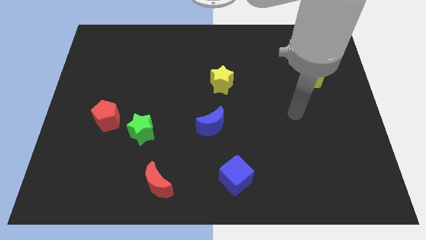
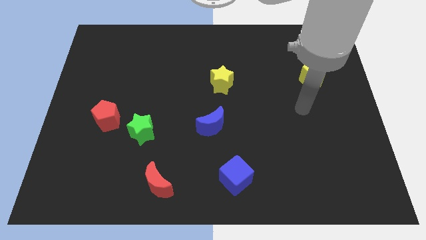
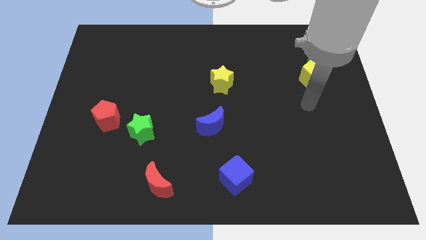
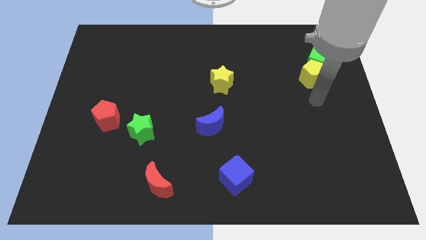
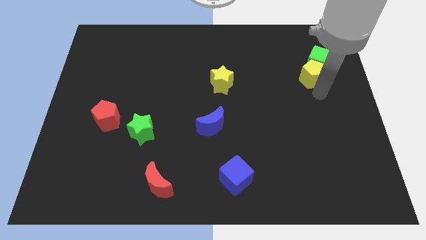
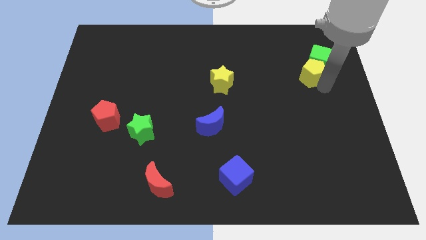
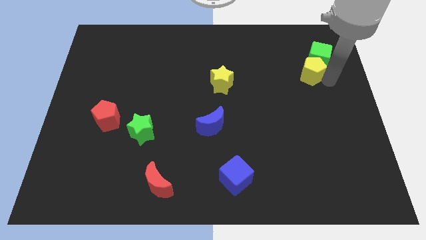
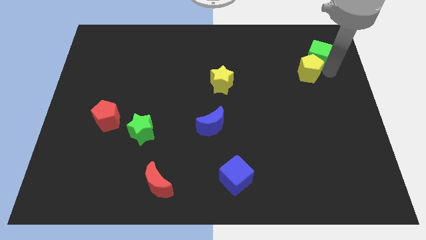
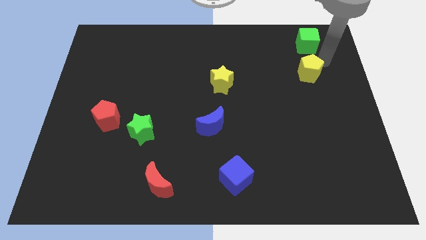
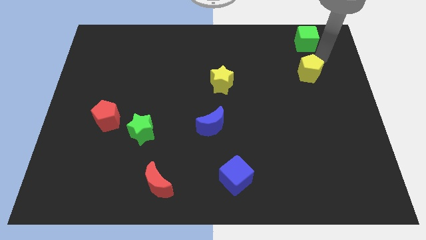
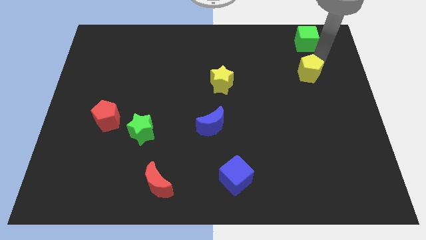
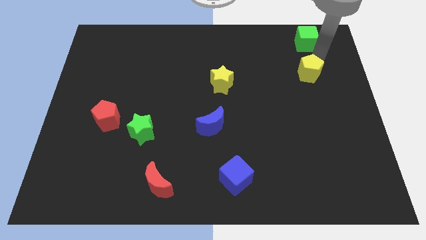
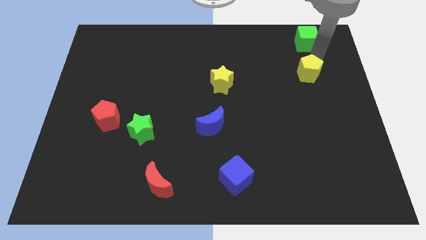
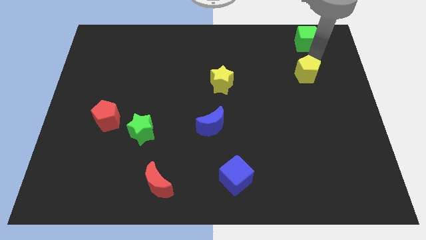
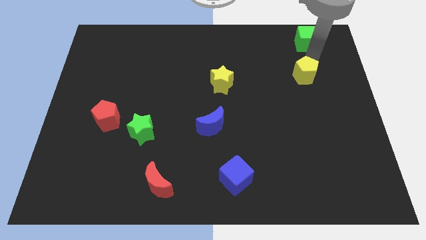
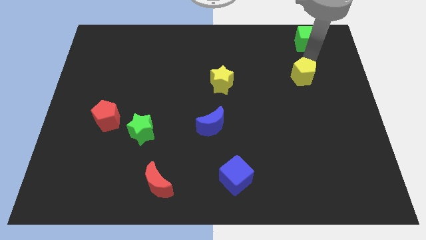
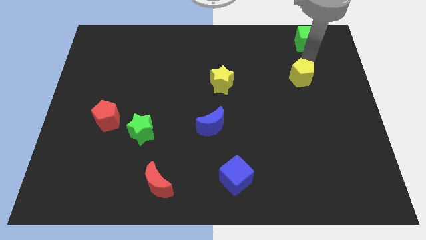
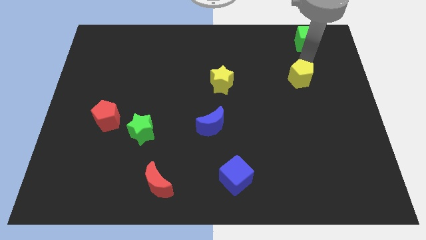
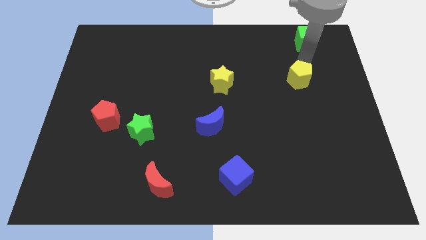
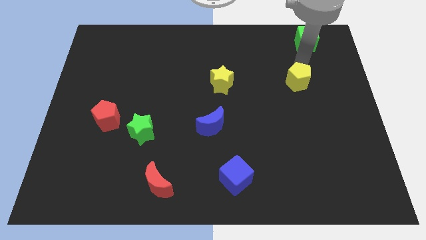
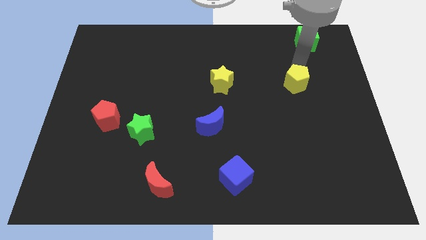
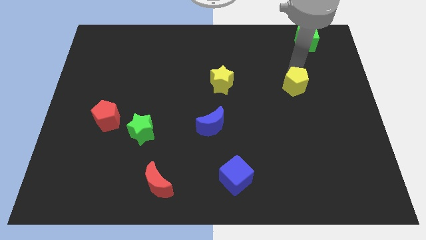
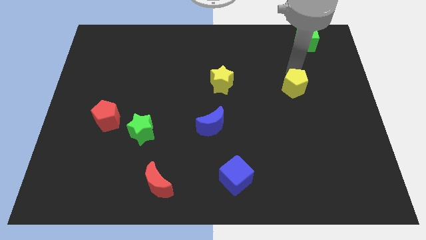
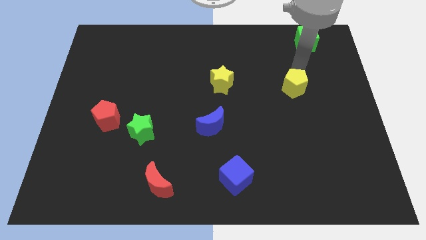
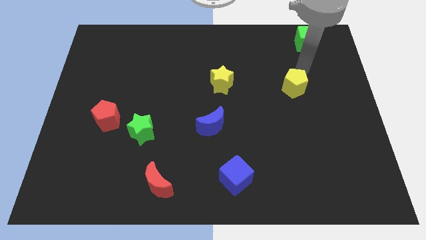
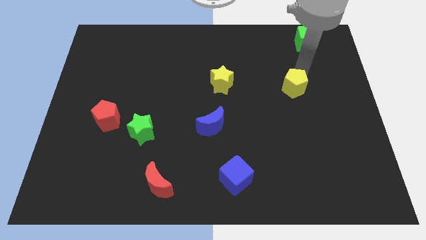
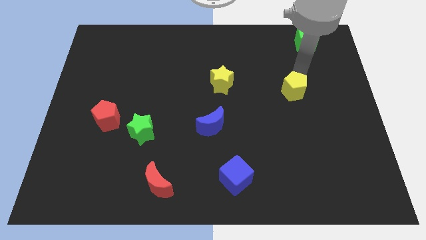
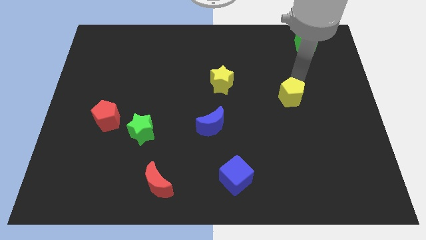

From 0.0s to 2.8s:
move the yellow pentagon a bit down and then left

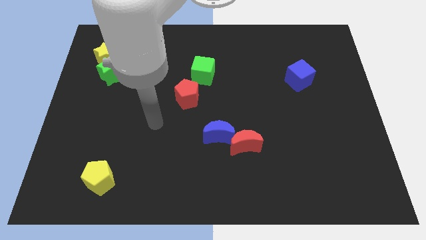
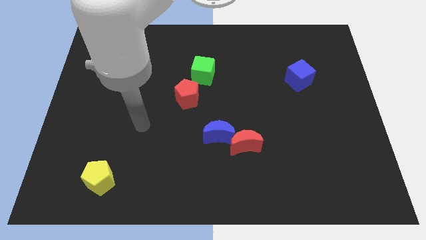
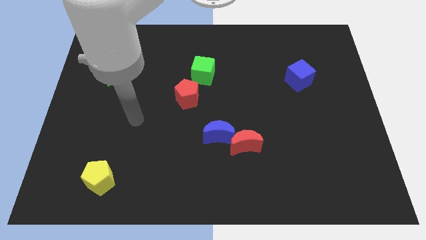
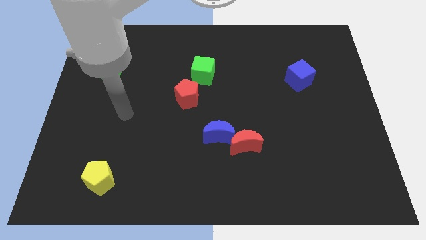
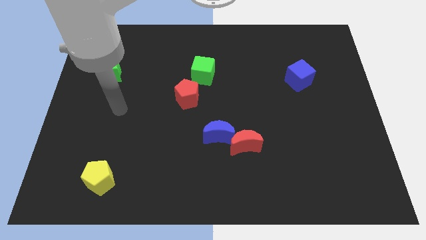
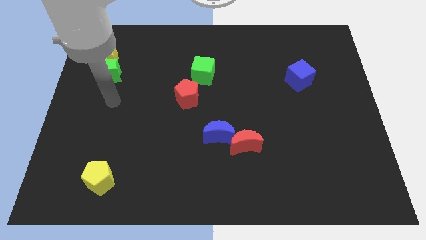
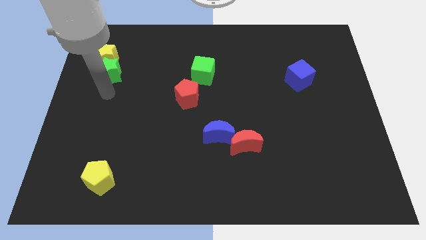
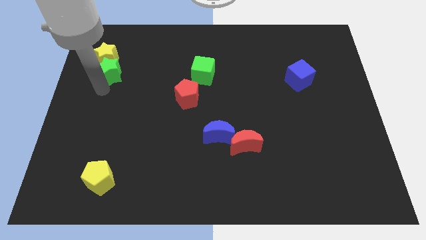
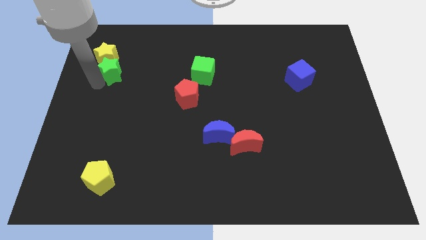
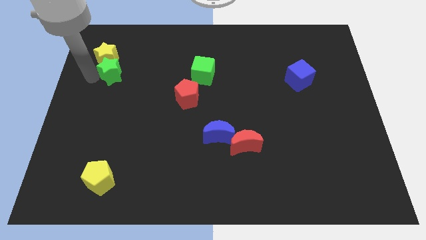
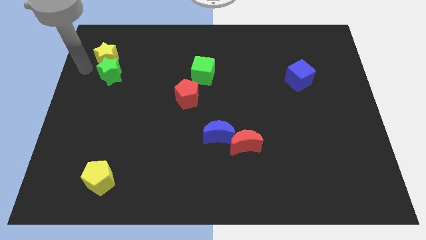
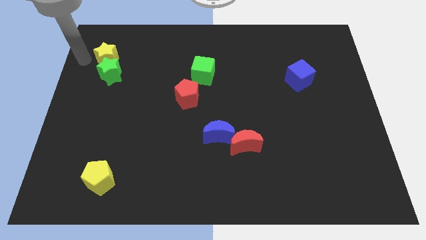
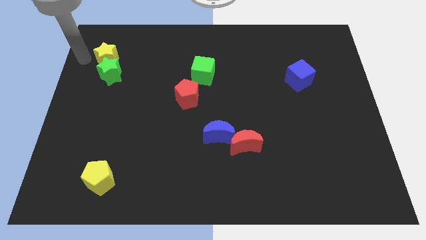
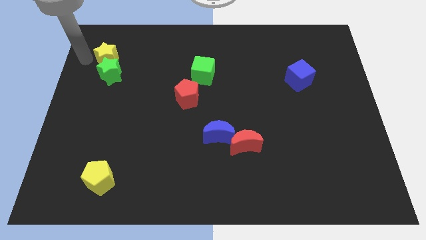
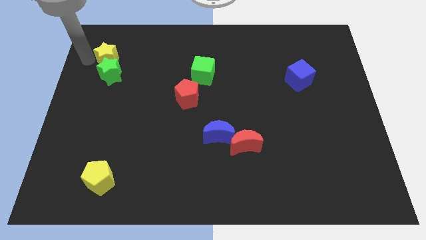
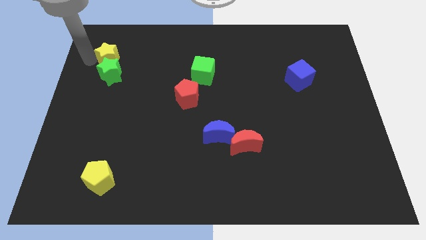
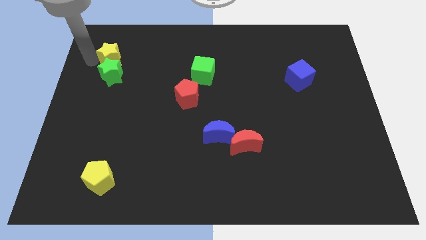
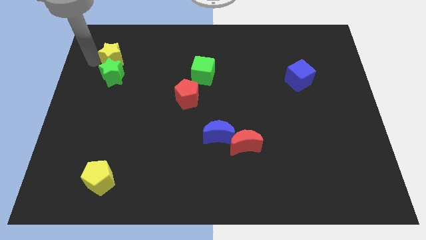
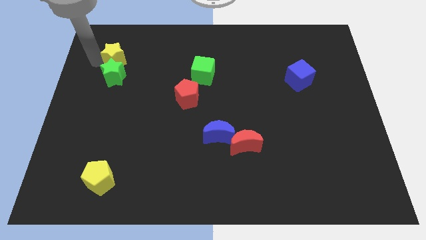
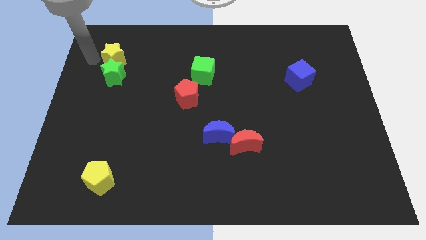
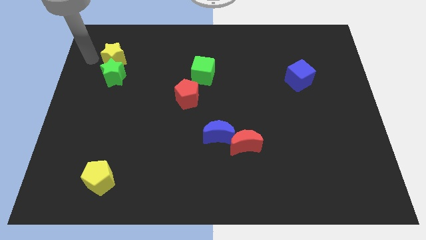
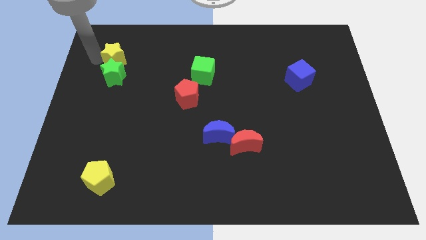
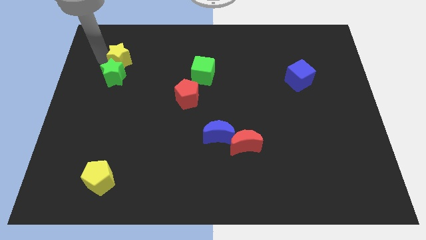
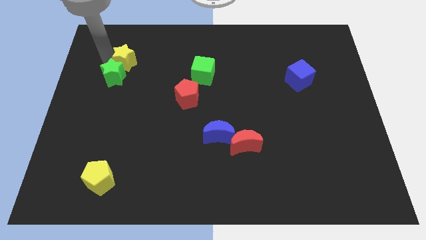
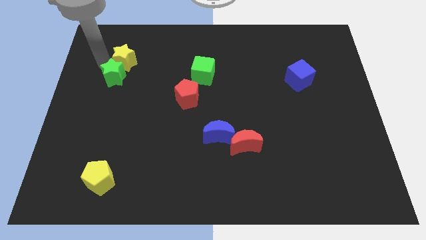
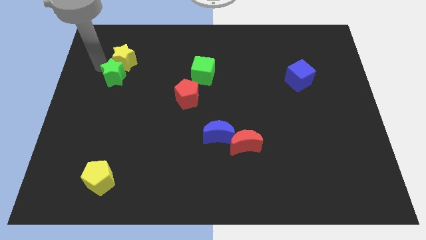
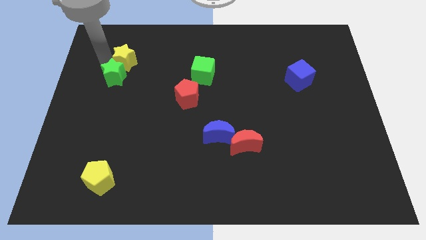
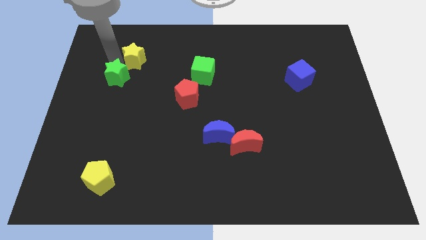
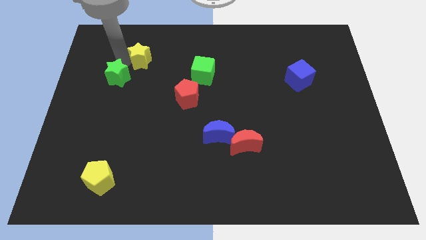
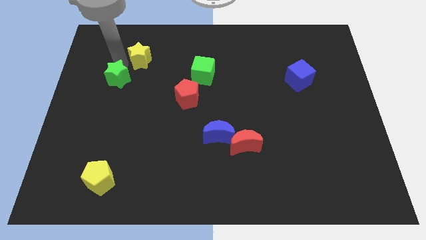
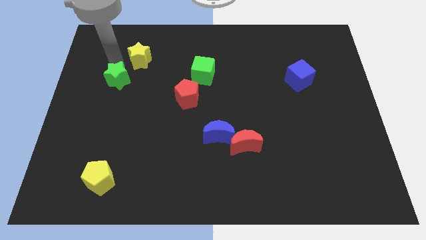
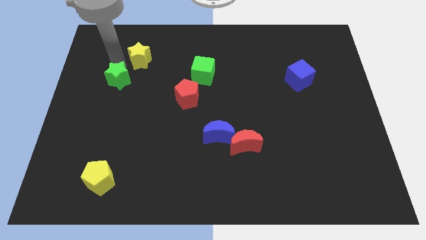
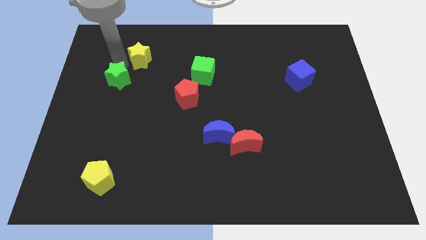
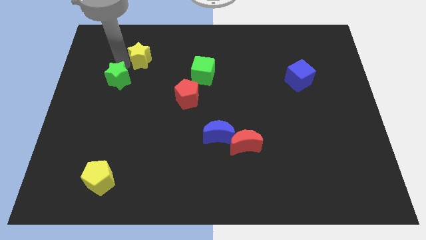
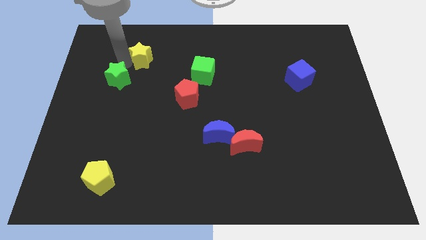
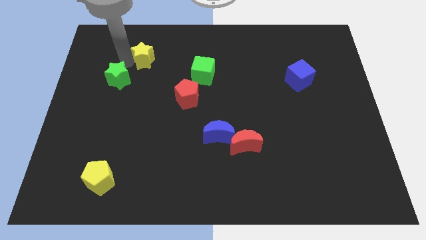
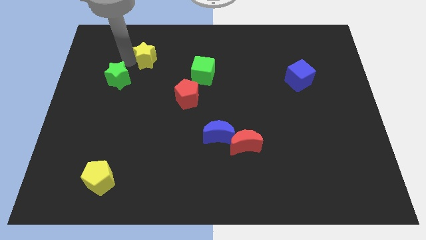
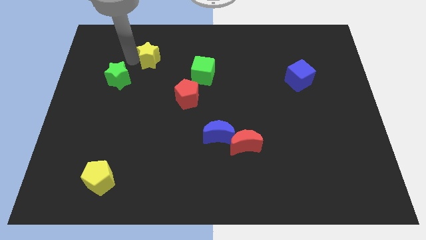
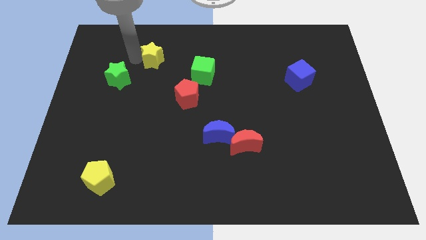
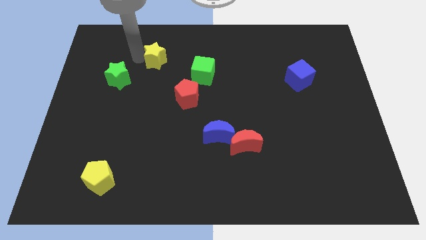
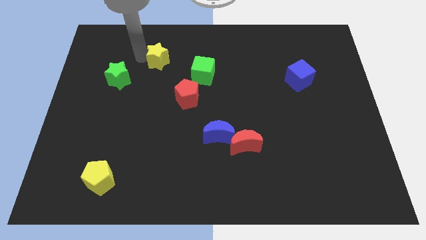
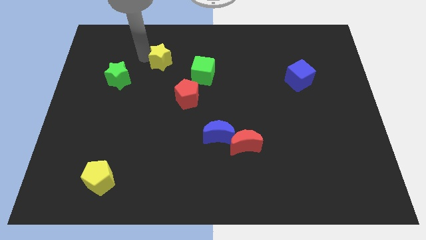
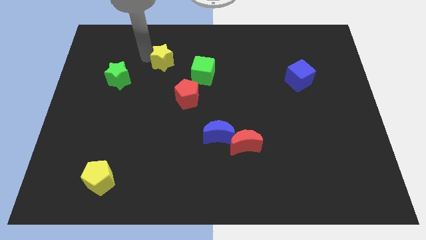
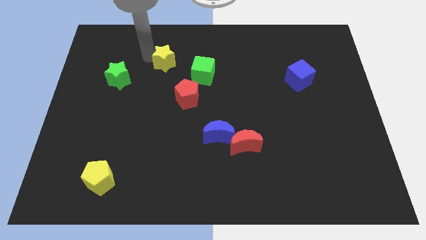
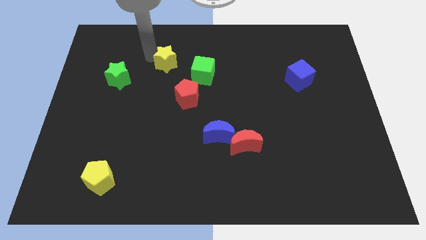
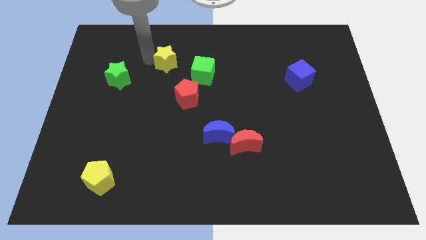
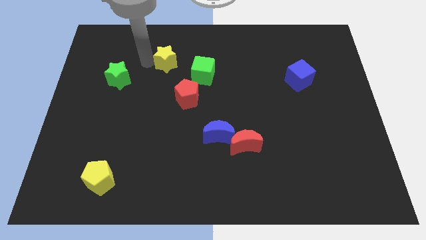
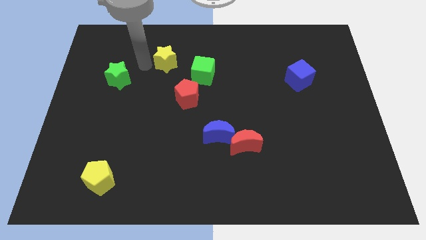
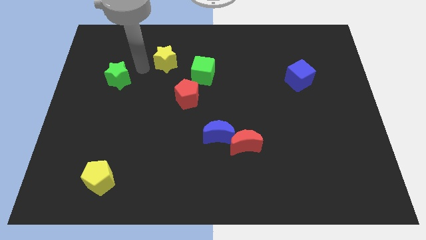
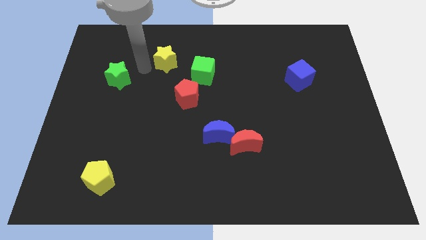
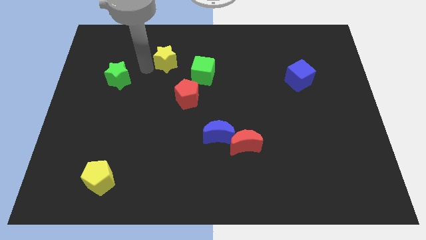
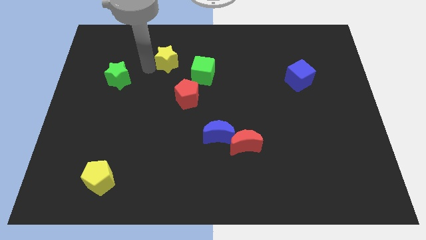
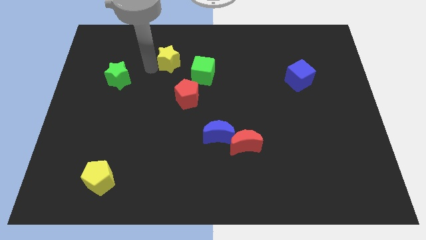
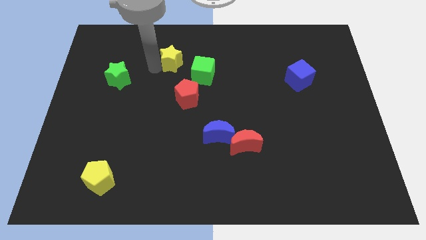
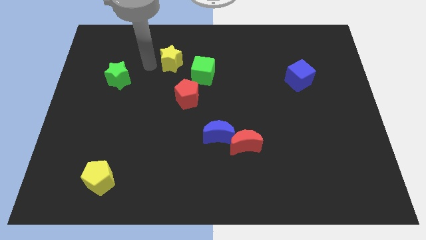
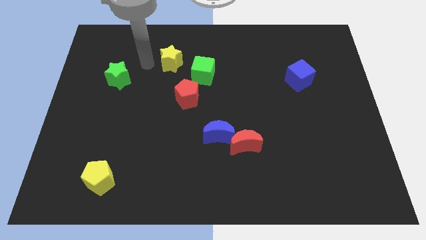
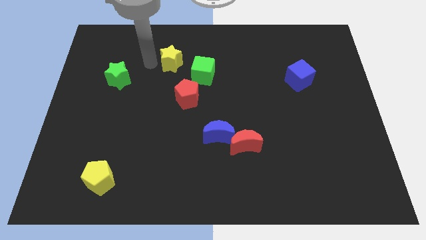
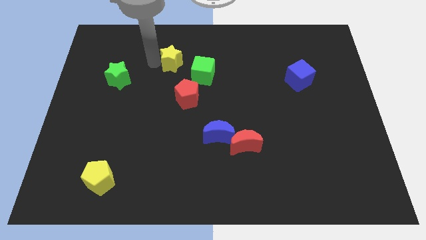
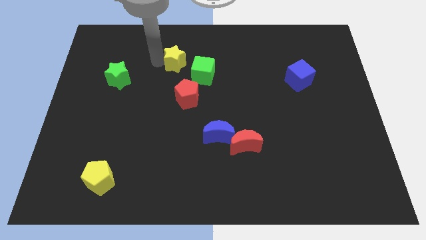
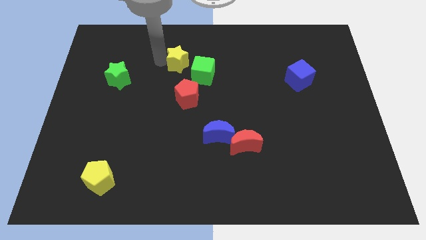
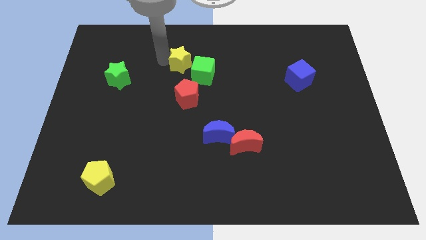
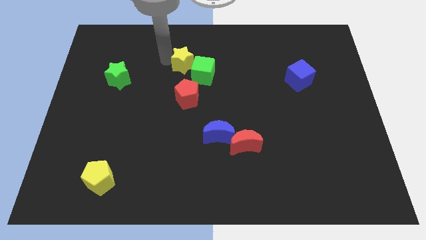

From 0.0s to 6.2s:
slide the yellow star to the right
